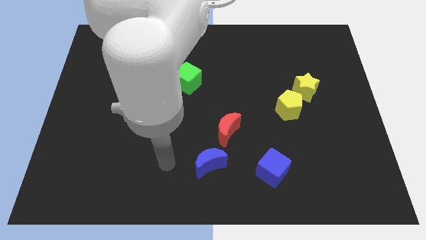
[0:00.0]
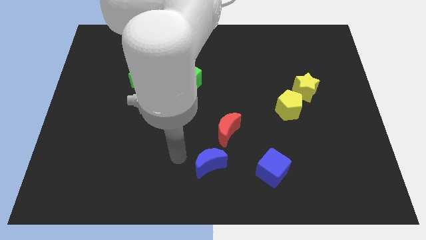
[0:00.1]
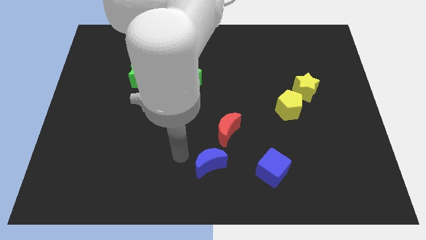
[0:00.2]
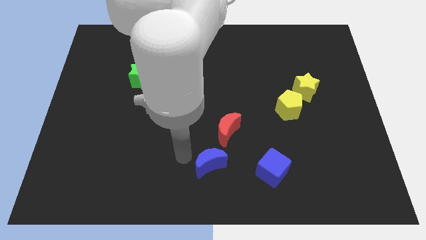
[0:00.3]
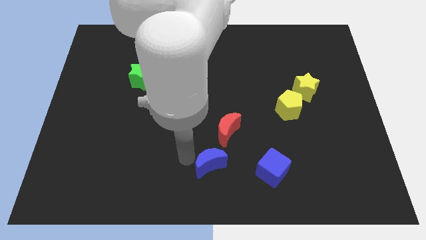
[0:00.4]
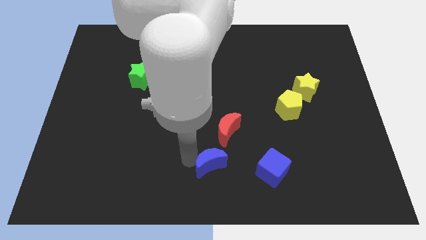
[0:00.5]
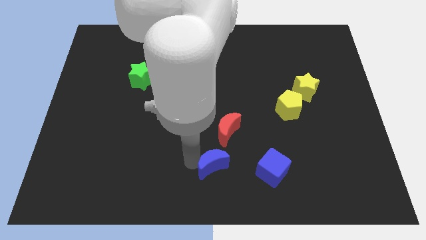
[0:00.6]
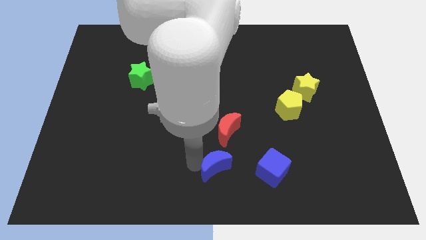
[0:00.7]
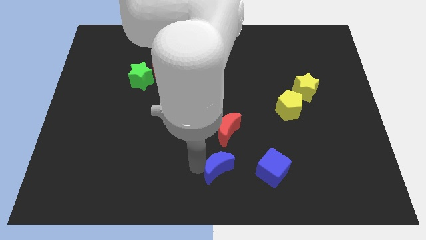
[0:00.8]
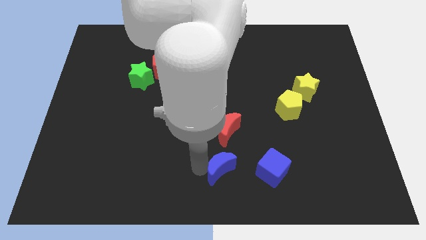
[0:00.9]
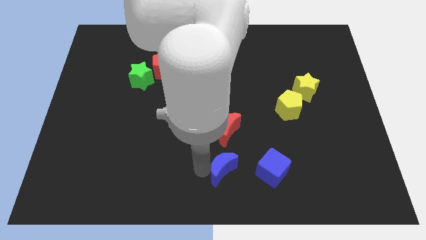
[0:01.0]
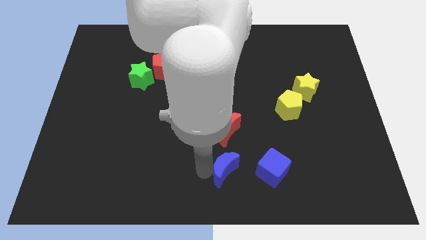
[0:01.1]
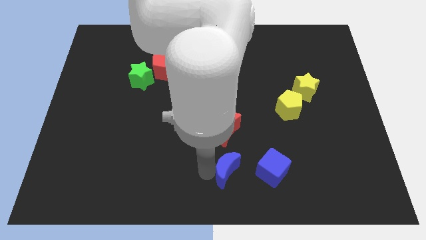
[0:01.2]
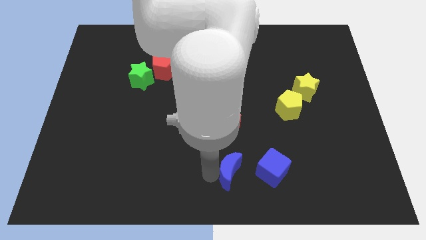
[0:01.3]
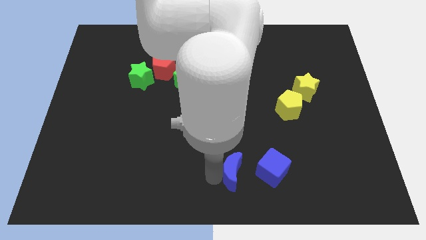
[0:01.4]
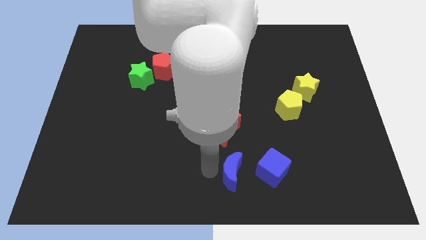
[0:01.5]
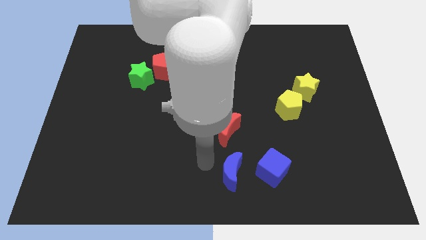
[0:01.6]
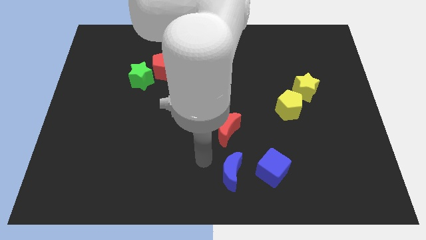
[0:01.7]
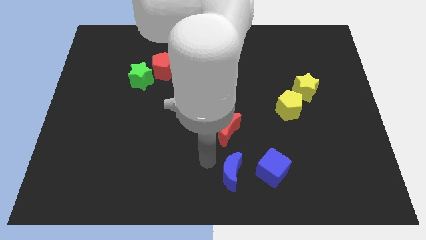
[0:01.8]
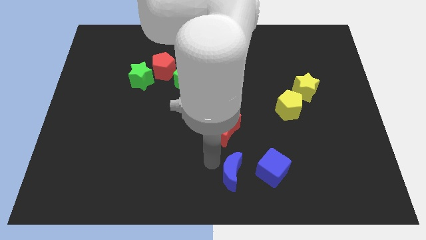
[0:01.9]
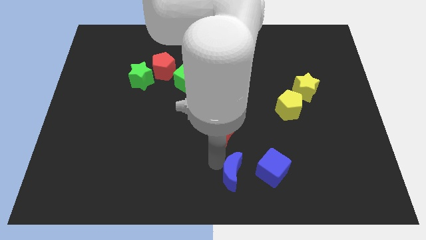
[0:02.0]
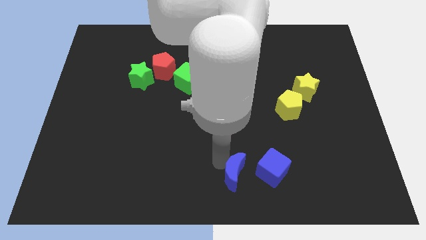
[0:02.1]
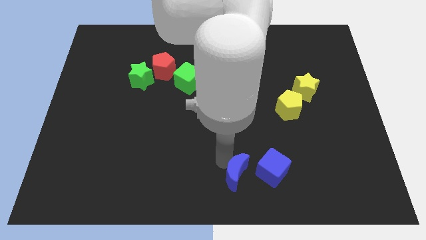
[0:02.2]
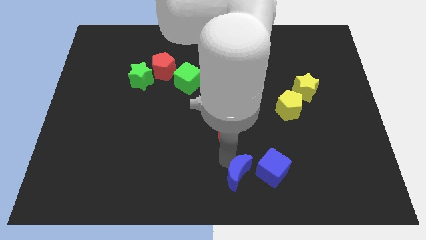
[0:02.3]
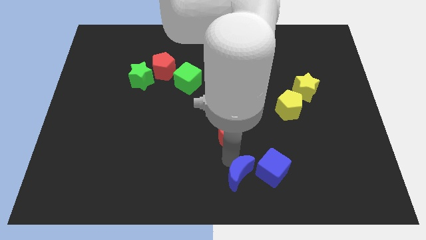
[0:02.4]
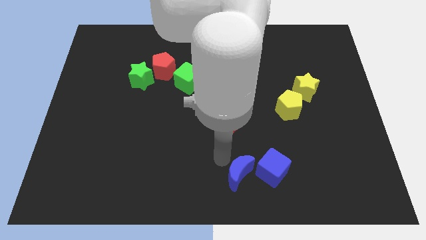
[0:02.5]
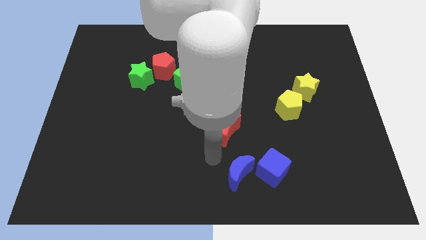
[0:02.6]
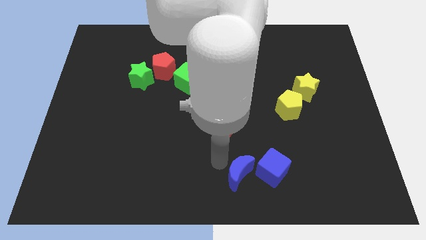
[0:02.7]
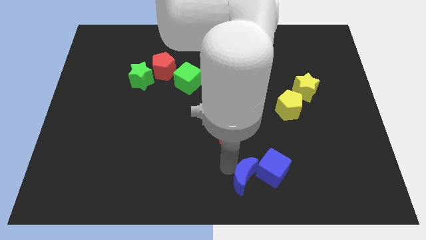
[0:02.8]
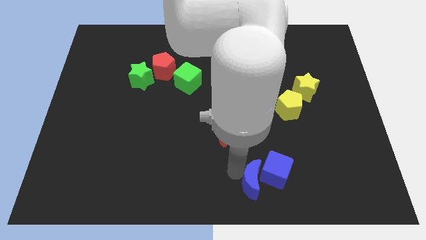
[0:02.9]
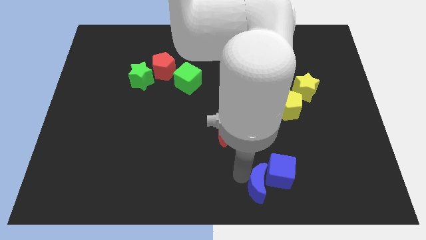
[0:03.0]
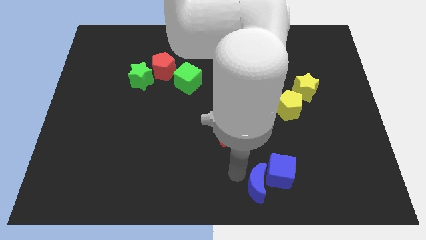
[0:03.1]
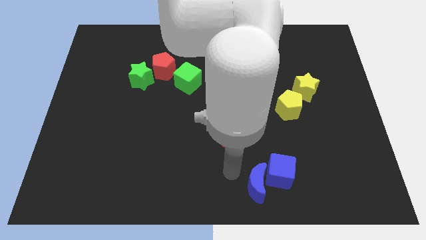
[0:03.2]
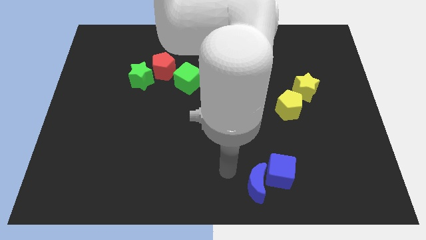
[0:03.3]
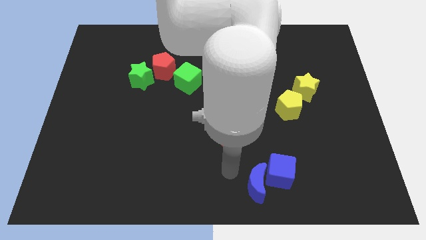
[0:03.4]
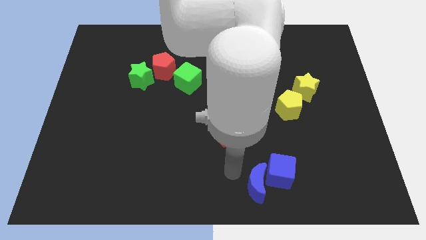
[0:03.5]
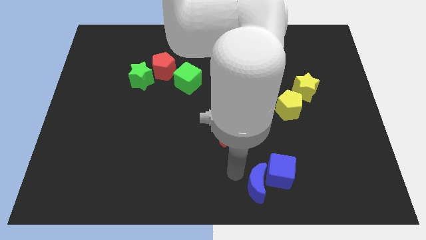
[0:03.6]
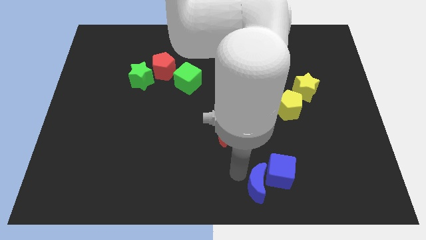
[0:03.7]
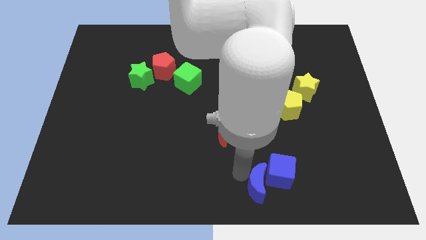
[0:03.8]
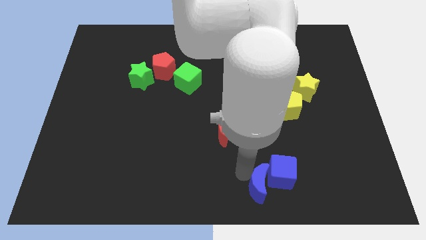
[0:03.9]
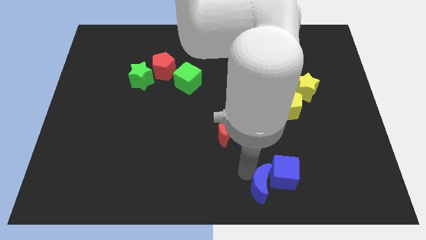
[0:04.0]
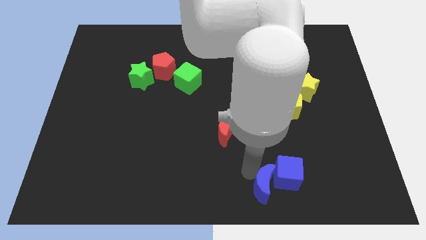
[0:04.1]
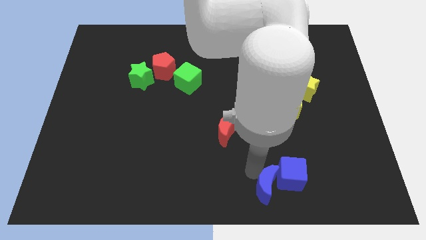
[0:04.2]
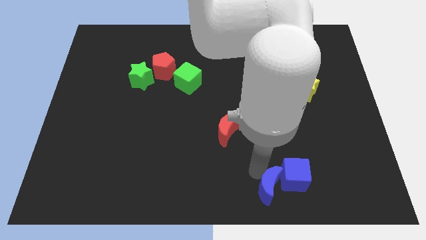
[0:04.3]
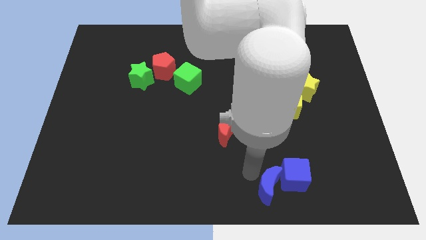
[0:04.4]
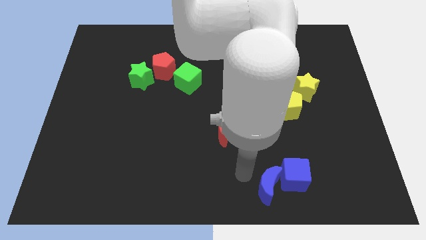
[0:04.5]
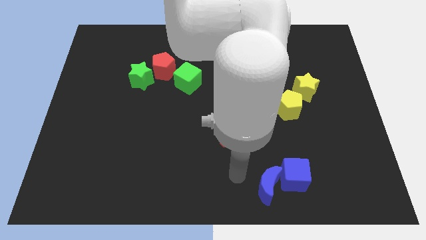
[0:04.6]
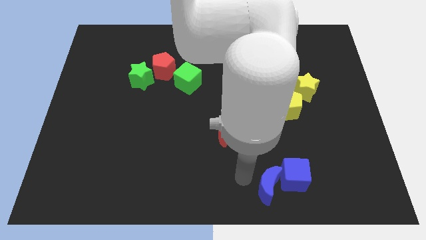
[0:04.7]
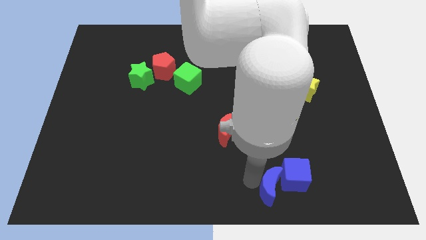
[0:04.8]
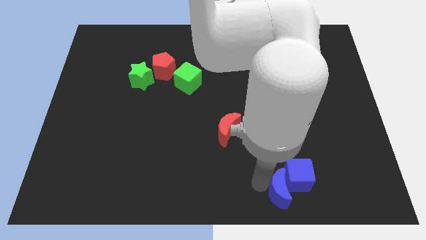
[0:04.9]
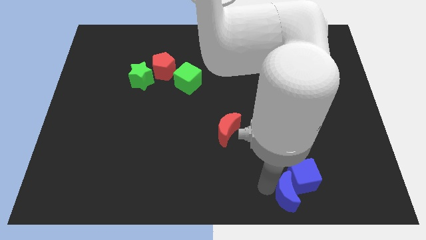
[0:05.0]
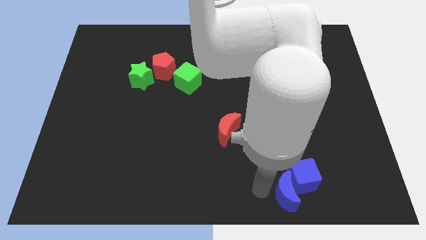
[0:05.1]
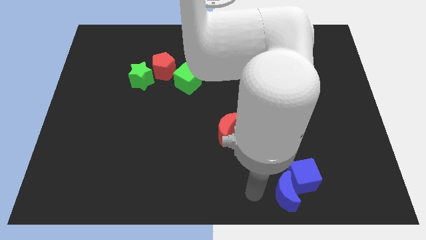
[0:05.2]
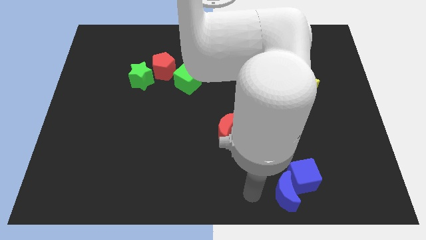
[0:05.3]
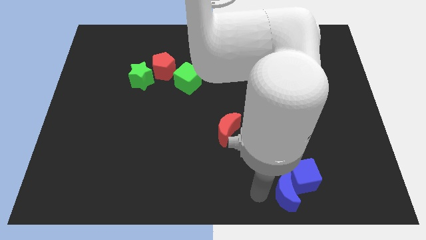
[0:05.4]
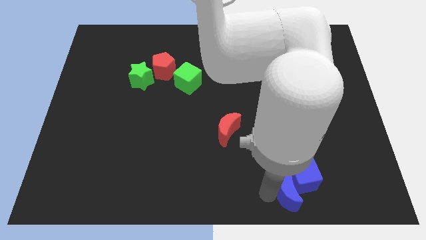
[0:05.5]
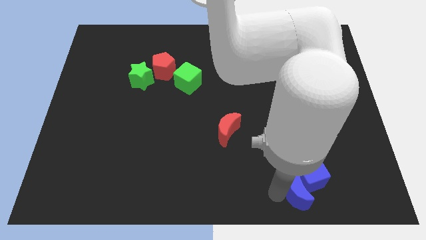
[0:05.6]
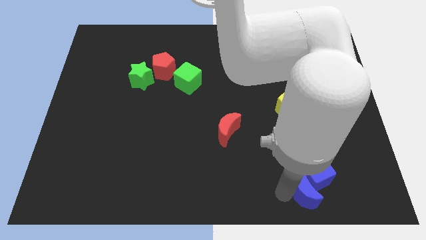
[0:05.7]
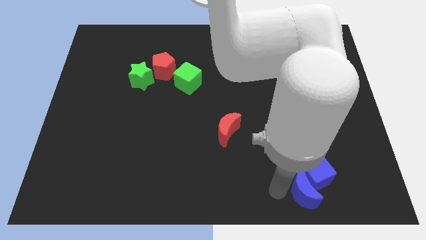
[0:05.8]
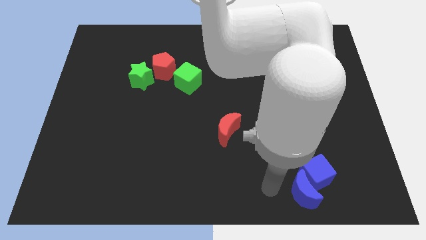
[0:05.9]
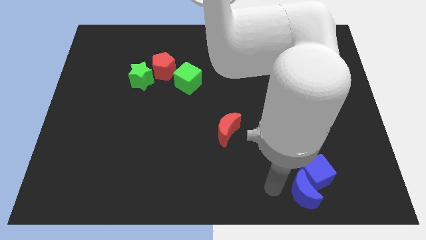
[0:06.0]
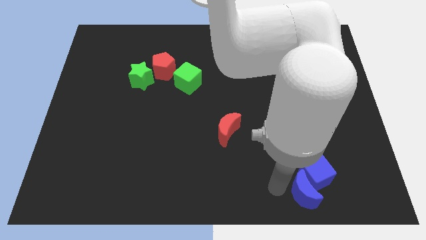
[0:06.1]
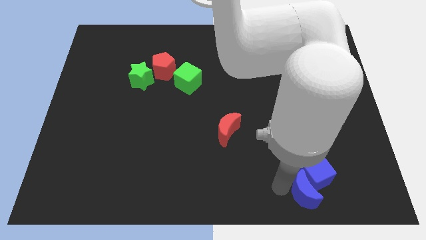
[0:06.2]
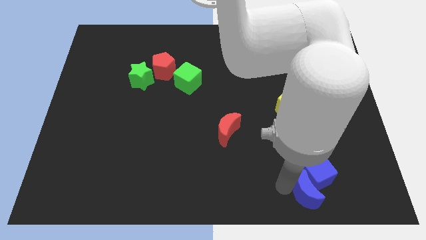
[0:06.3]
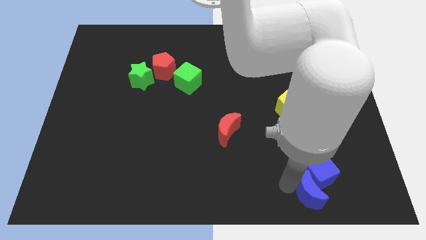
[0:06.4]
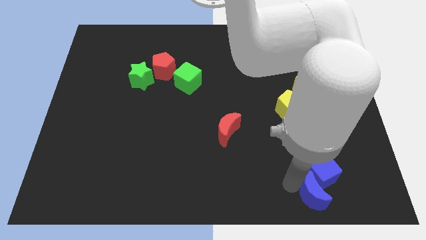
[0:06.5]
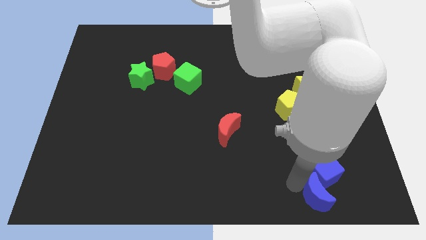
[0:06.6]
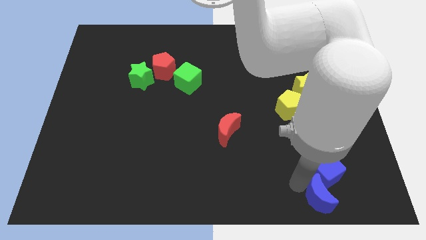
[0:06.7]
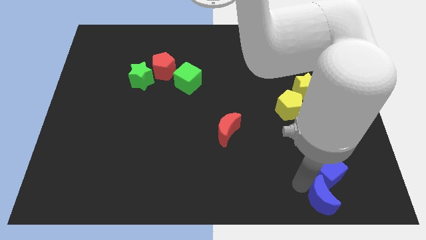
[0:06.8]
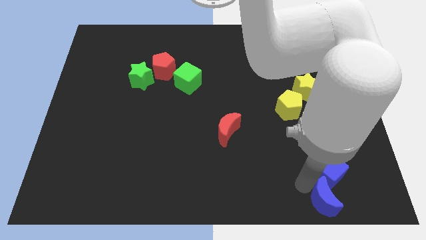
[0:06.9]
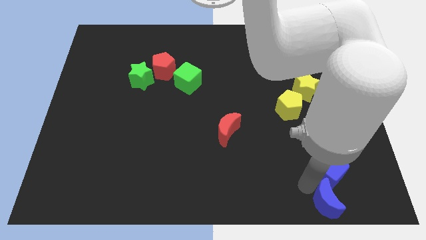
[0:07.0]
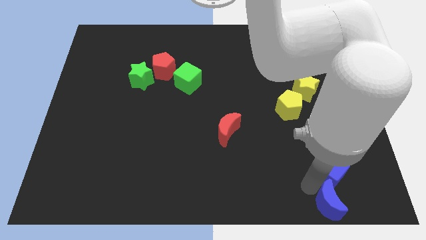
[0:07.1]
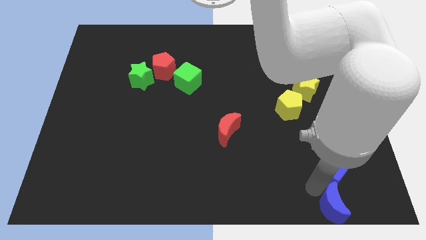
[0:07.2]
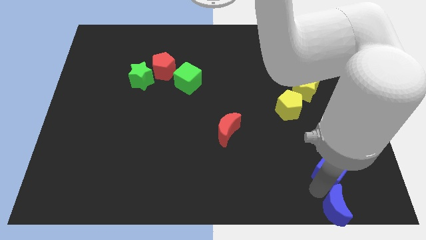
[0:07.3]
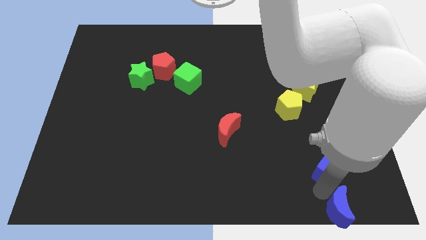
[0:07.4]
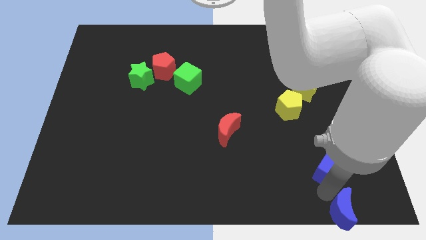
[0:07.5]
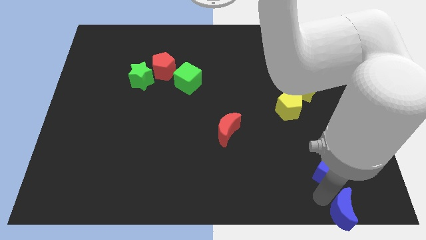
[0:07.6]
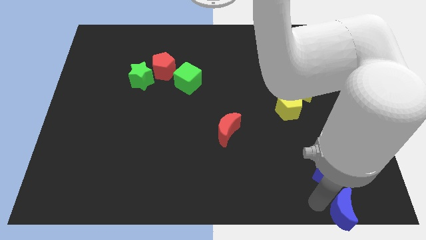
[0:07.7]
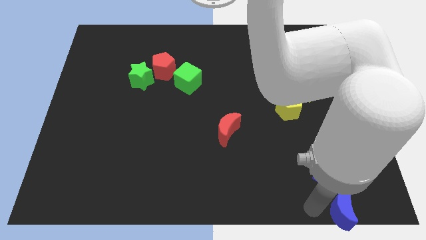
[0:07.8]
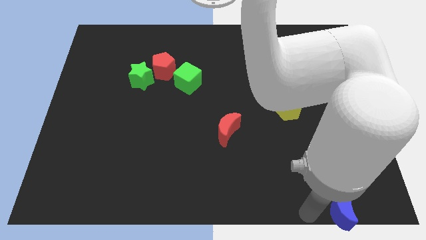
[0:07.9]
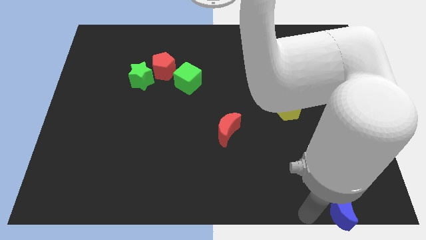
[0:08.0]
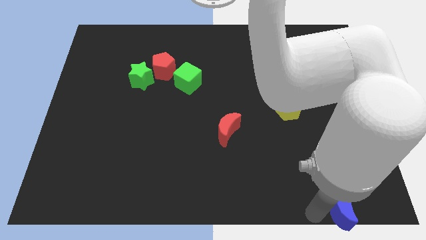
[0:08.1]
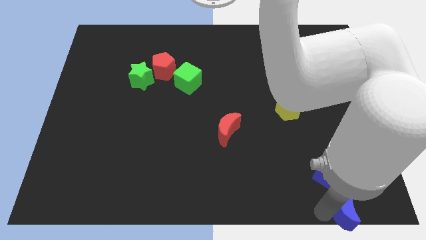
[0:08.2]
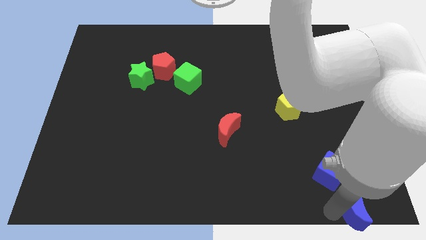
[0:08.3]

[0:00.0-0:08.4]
put the blue moon to the bottom right
